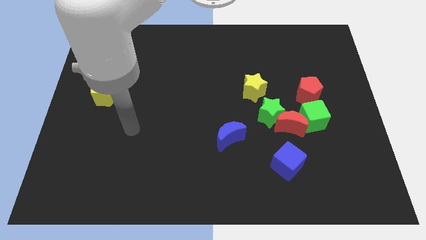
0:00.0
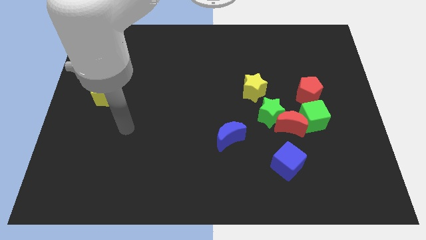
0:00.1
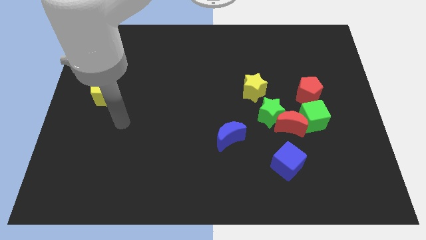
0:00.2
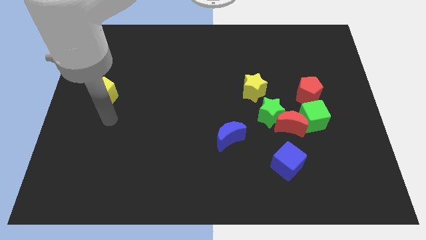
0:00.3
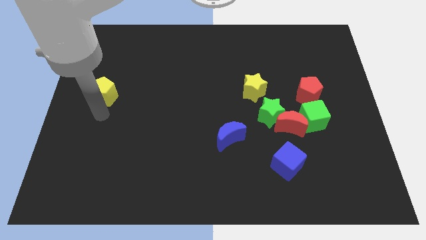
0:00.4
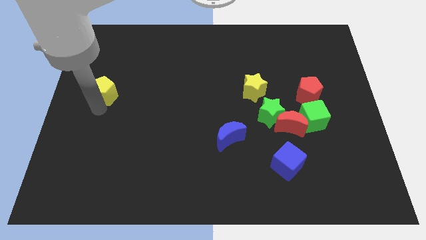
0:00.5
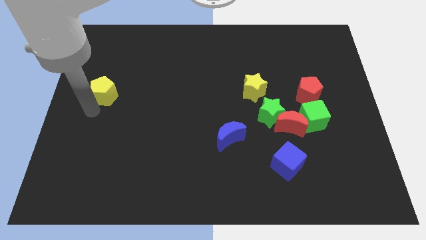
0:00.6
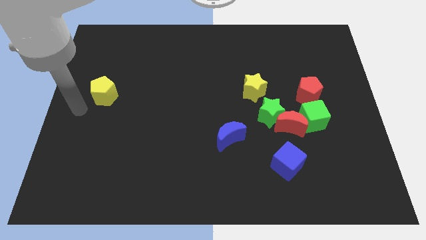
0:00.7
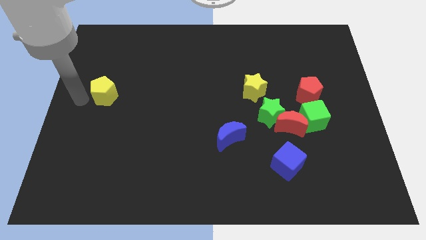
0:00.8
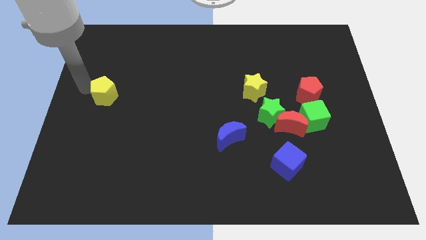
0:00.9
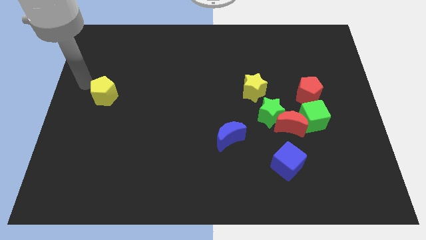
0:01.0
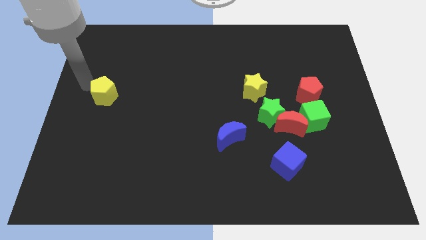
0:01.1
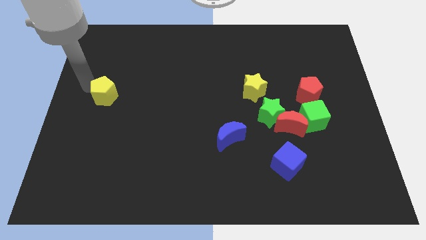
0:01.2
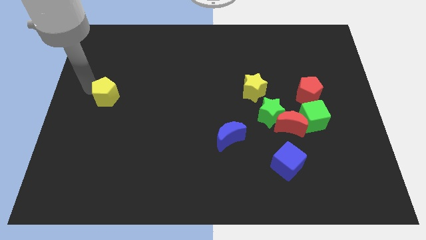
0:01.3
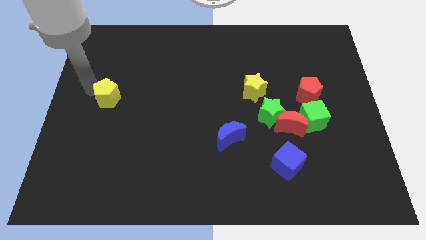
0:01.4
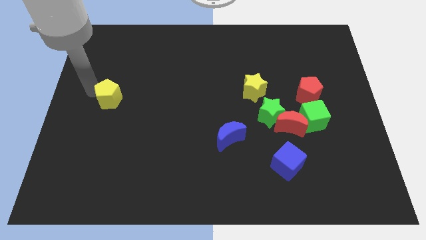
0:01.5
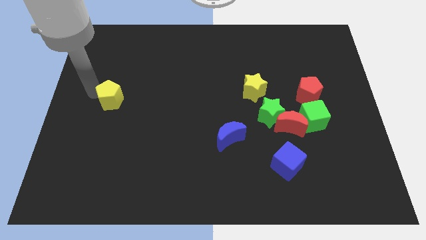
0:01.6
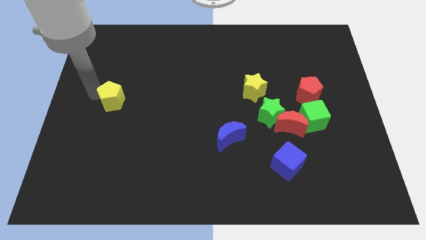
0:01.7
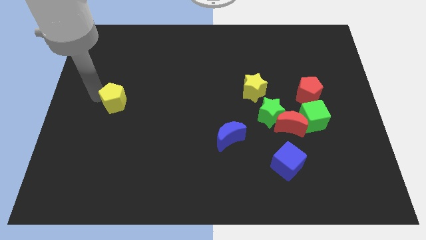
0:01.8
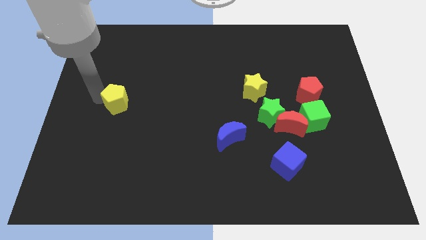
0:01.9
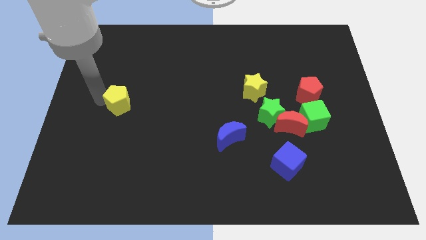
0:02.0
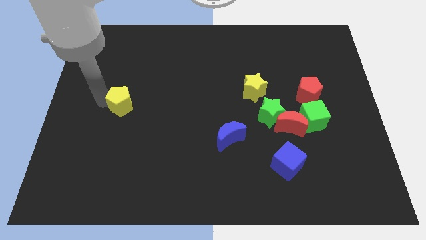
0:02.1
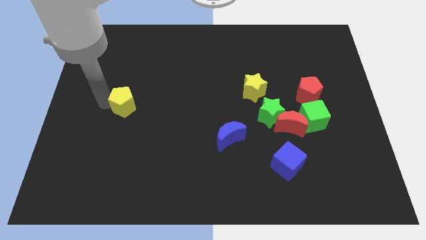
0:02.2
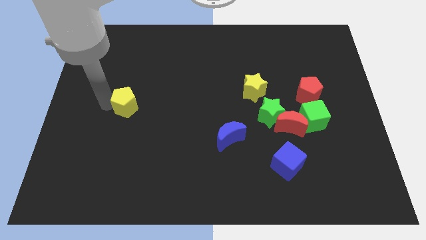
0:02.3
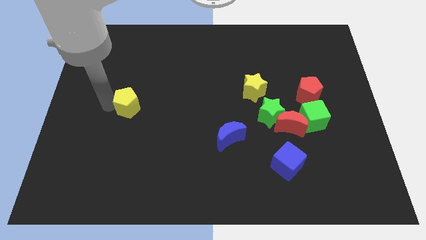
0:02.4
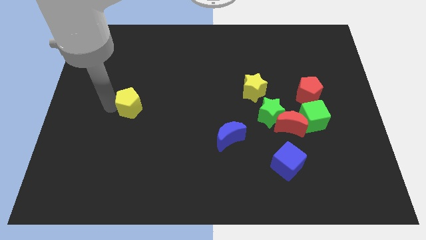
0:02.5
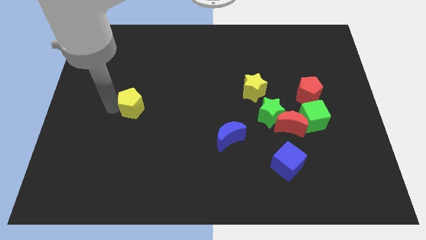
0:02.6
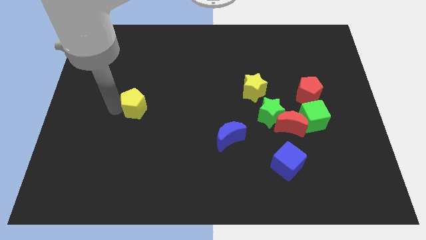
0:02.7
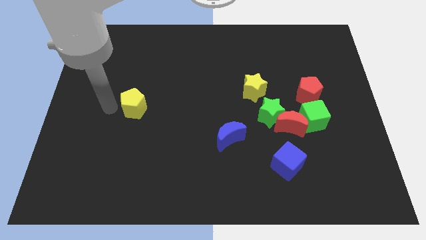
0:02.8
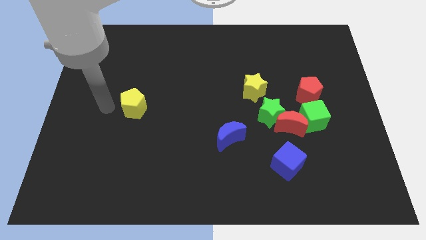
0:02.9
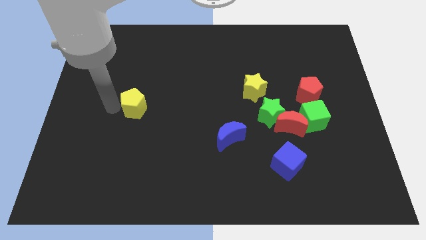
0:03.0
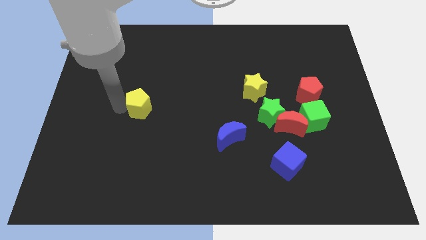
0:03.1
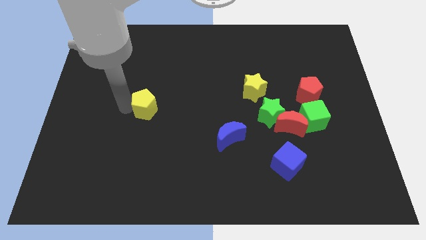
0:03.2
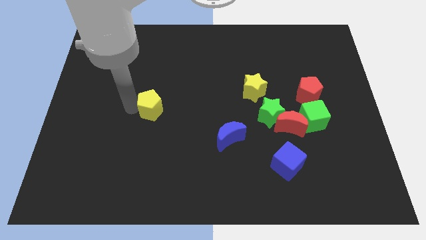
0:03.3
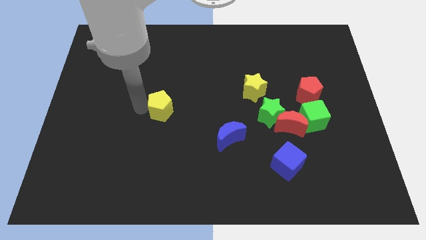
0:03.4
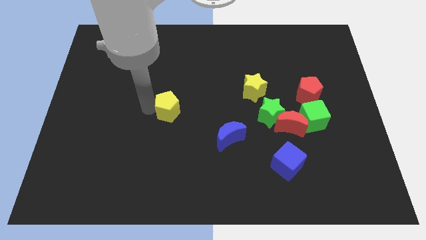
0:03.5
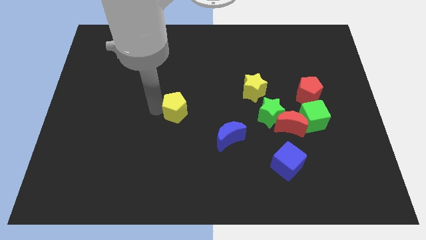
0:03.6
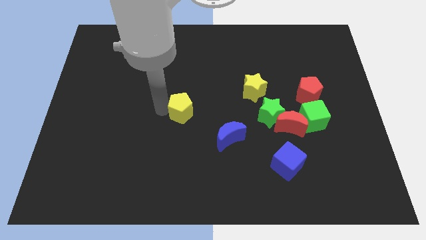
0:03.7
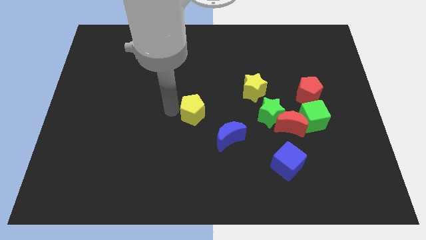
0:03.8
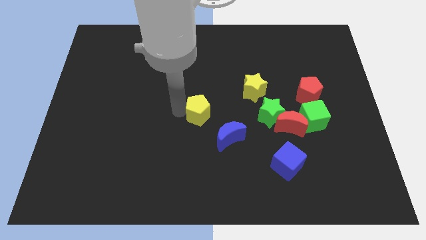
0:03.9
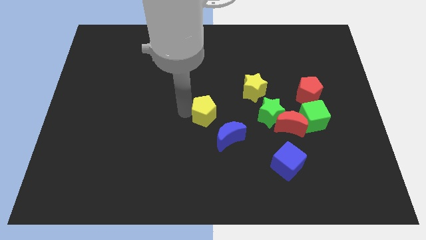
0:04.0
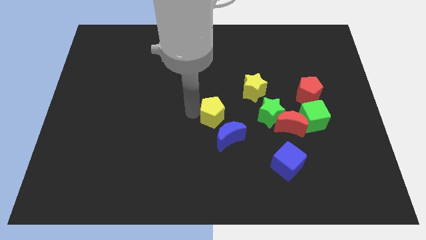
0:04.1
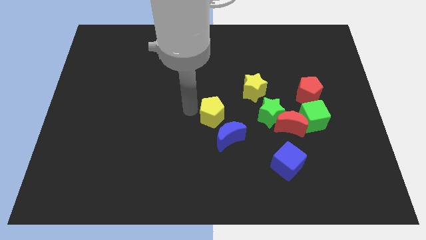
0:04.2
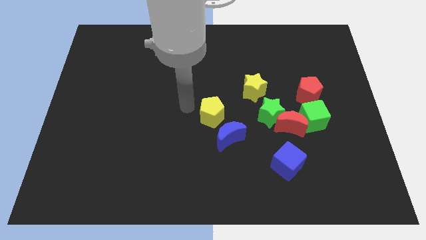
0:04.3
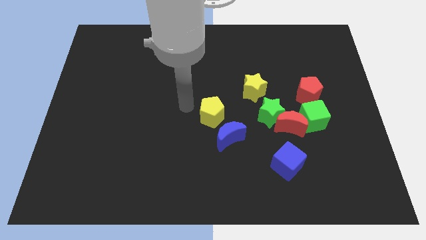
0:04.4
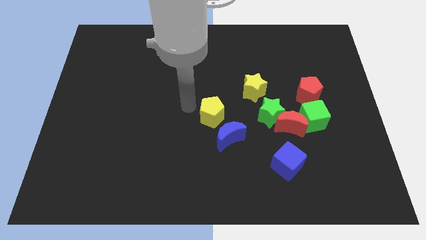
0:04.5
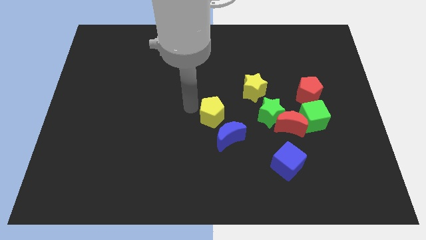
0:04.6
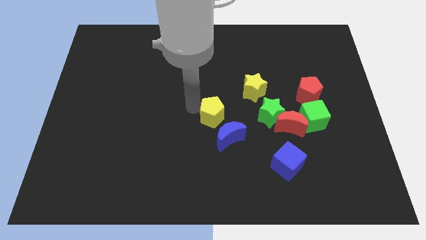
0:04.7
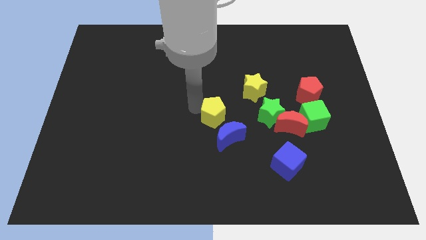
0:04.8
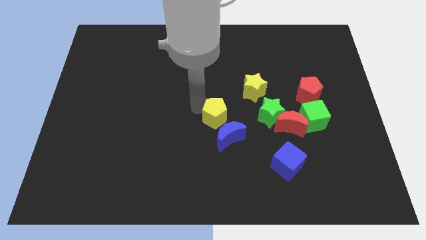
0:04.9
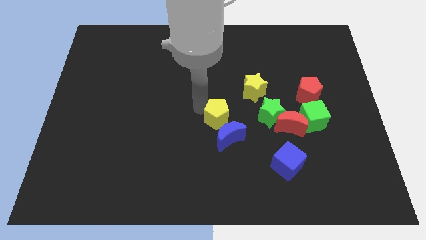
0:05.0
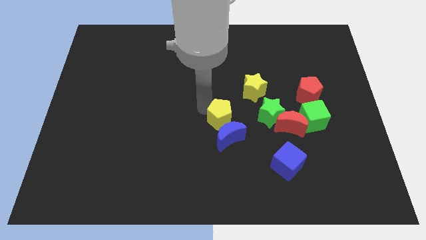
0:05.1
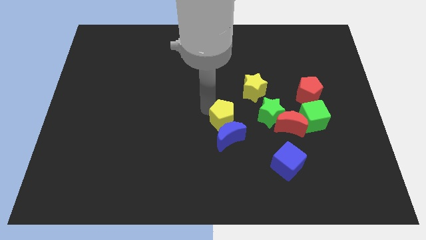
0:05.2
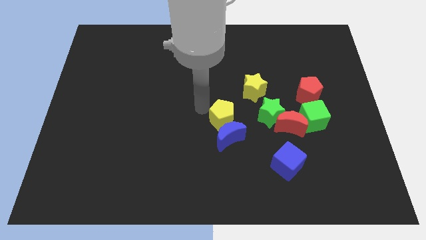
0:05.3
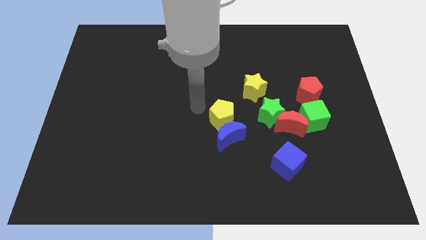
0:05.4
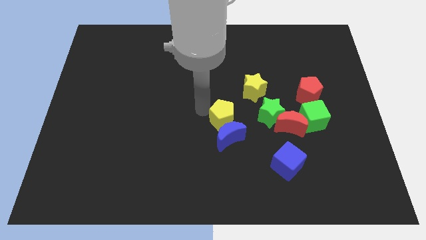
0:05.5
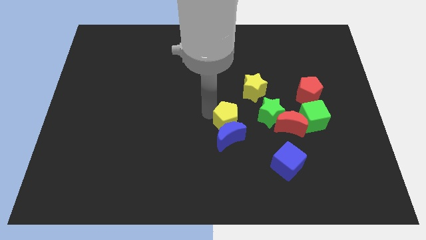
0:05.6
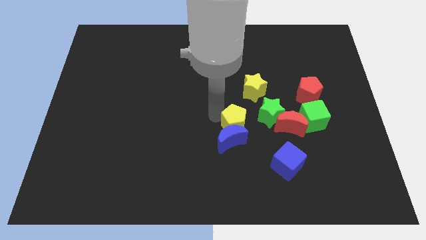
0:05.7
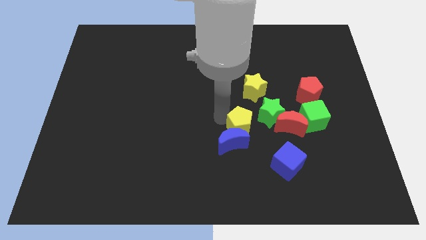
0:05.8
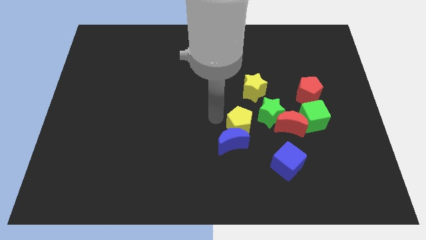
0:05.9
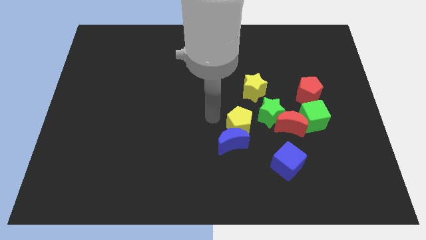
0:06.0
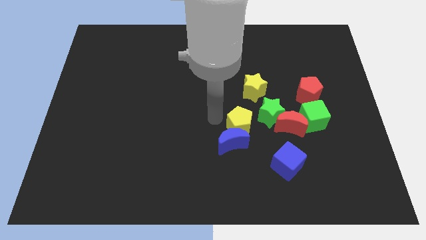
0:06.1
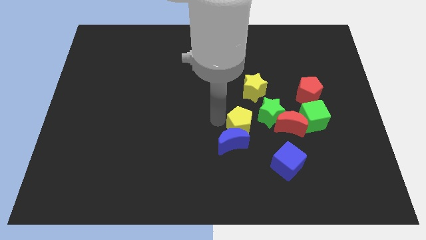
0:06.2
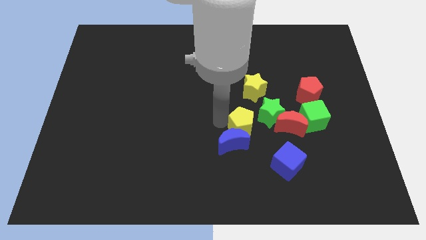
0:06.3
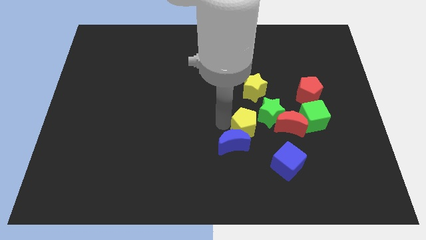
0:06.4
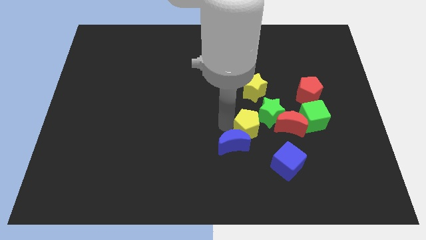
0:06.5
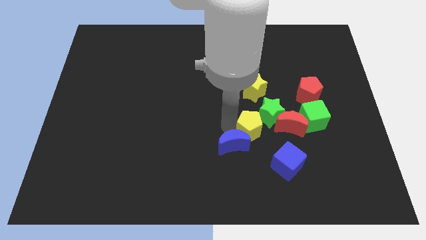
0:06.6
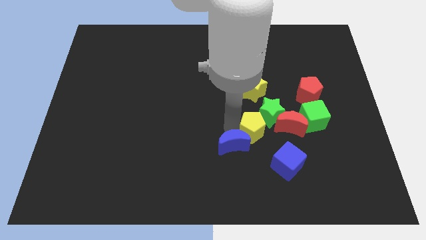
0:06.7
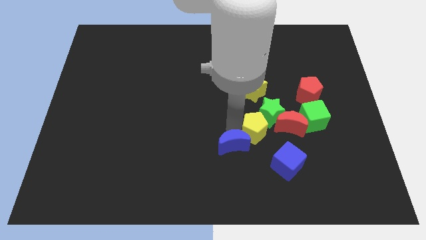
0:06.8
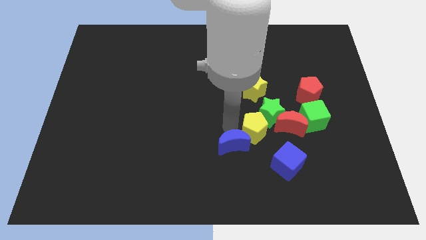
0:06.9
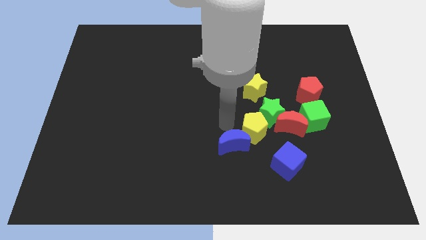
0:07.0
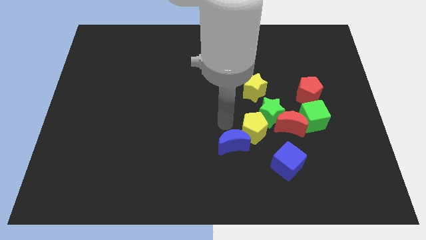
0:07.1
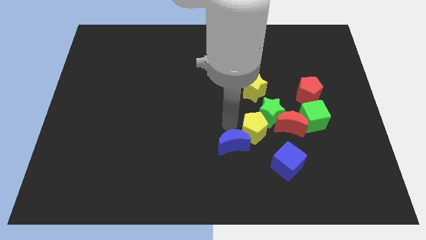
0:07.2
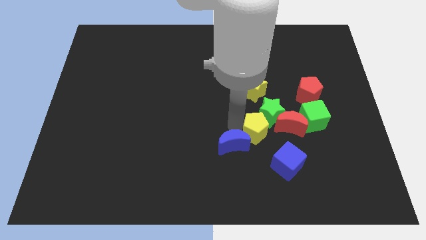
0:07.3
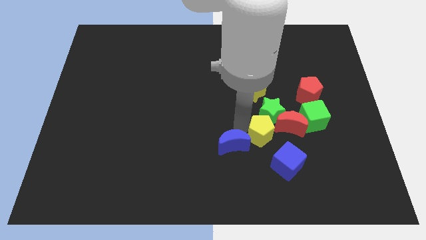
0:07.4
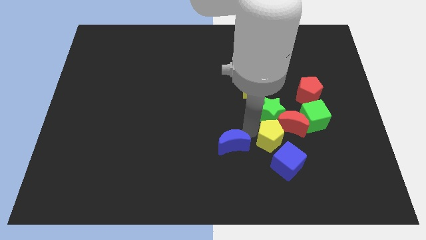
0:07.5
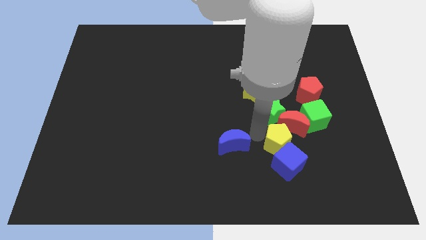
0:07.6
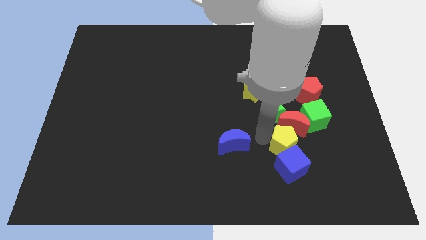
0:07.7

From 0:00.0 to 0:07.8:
put the yellow pentagon diagonally up and to the right of the blue cube
